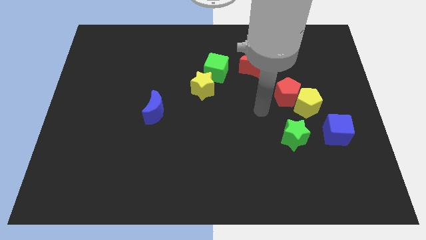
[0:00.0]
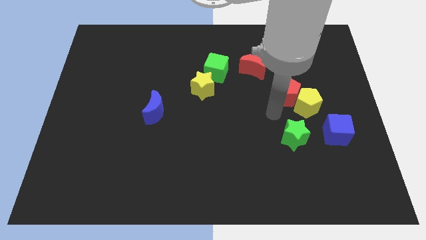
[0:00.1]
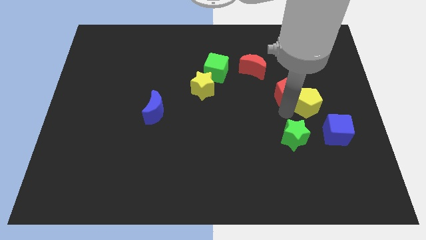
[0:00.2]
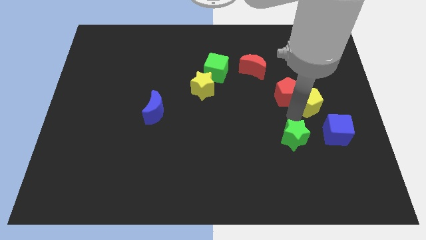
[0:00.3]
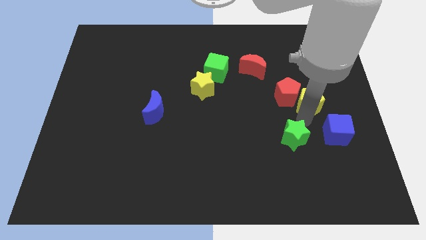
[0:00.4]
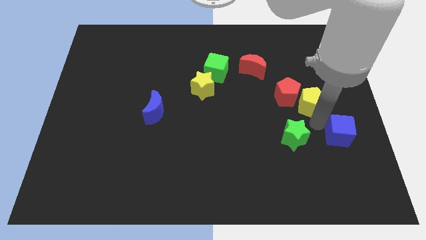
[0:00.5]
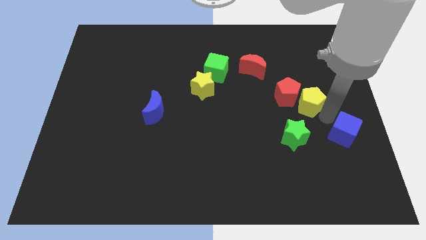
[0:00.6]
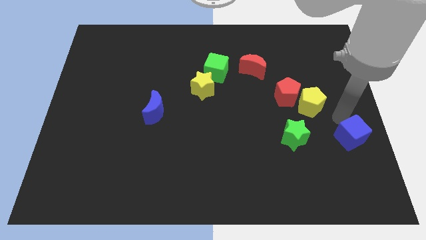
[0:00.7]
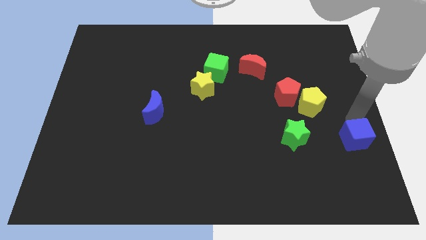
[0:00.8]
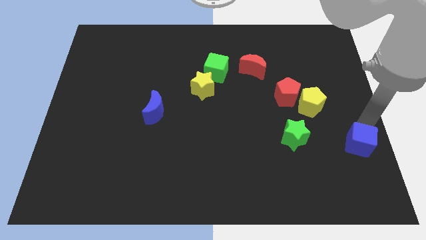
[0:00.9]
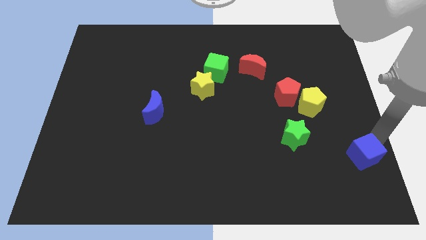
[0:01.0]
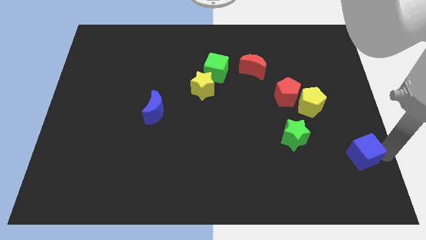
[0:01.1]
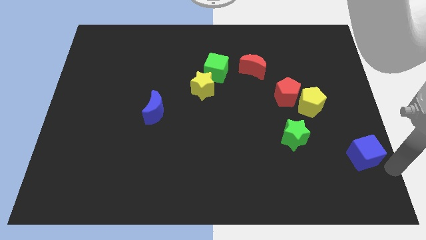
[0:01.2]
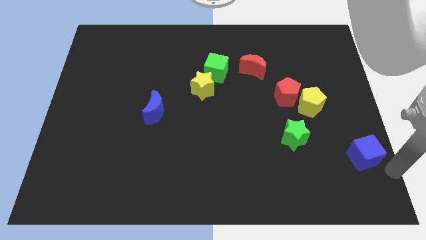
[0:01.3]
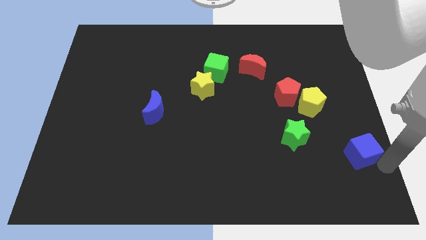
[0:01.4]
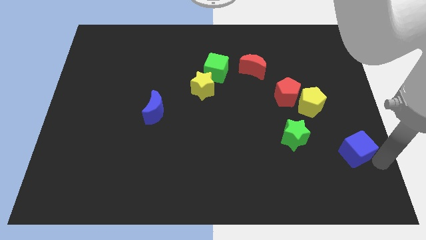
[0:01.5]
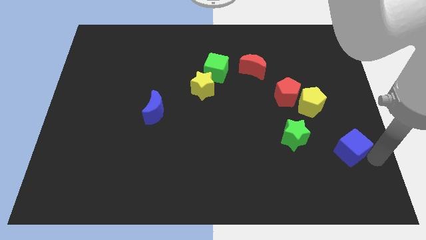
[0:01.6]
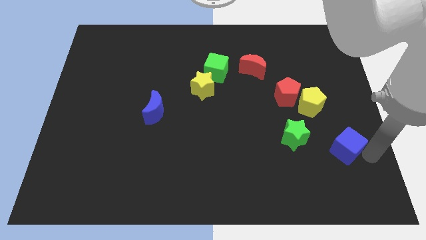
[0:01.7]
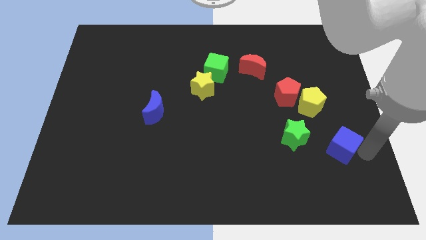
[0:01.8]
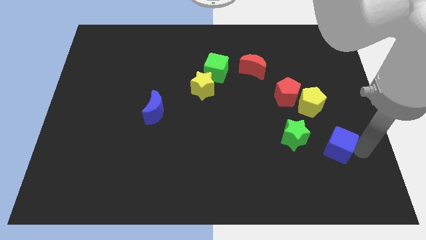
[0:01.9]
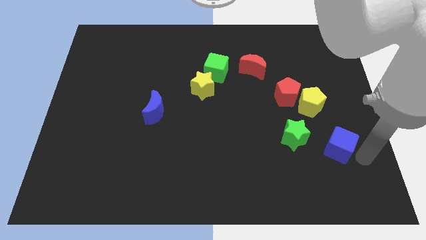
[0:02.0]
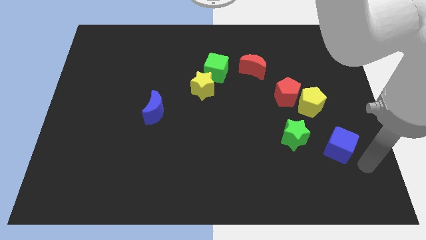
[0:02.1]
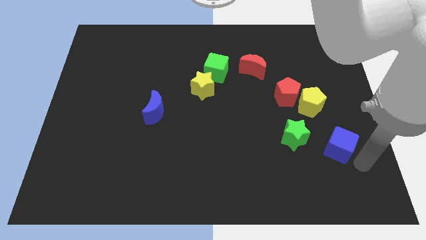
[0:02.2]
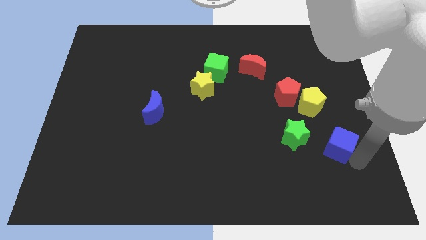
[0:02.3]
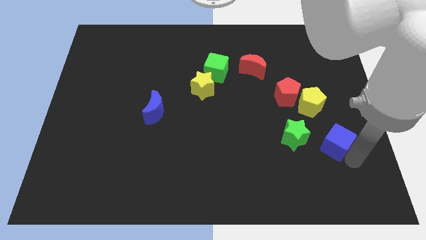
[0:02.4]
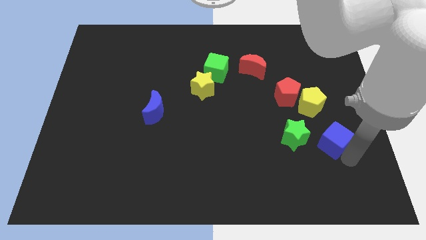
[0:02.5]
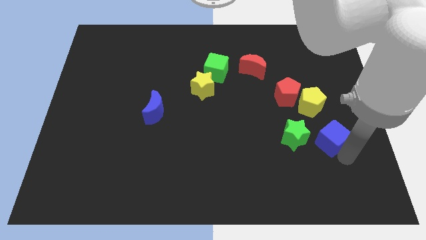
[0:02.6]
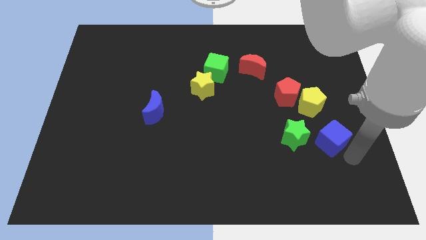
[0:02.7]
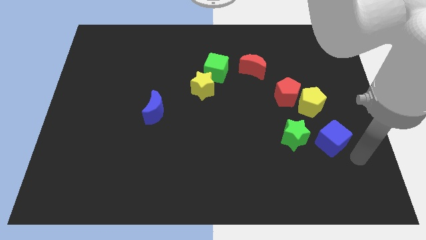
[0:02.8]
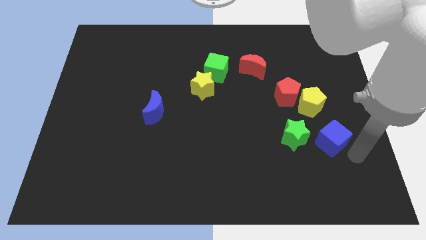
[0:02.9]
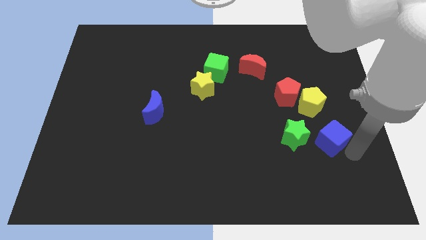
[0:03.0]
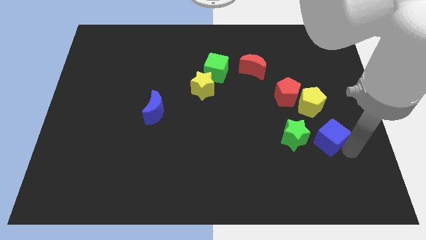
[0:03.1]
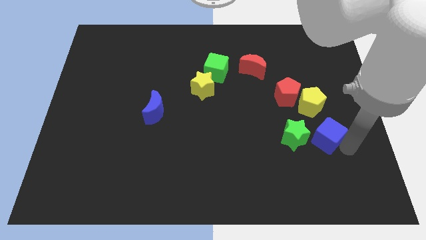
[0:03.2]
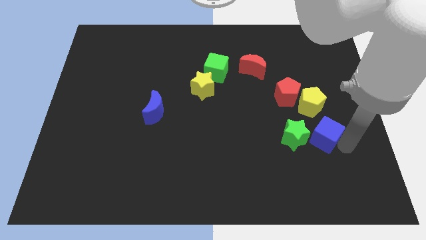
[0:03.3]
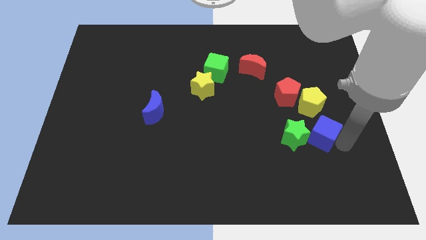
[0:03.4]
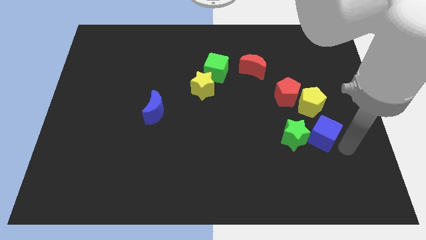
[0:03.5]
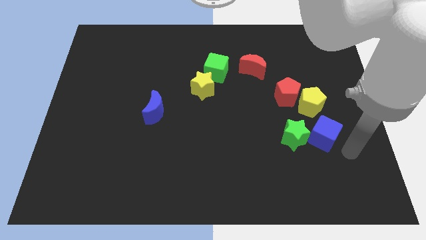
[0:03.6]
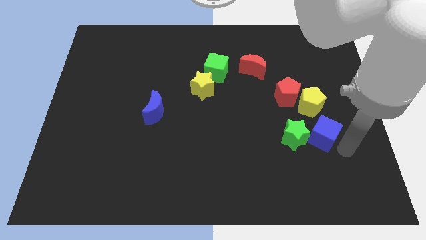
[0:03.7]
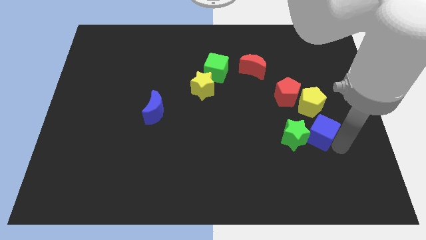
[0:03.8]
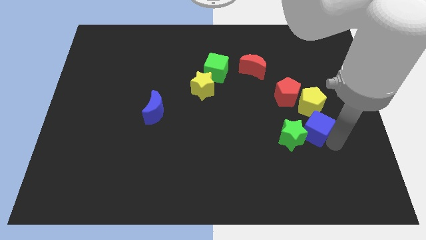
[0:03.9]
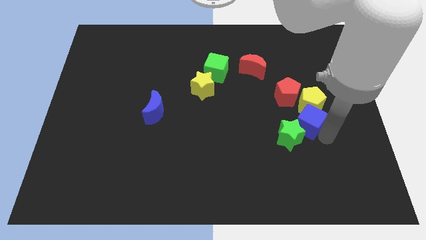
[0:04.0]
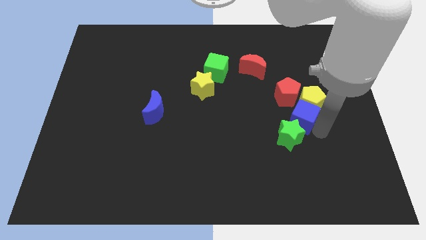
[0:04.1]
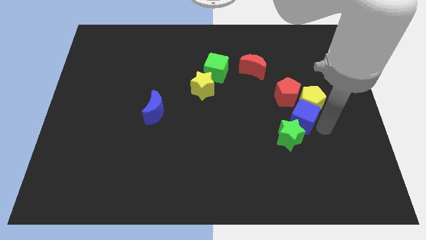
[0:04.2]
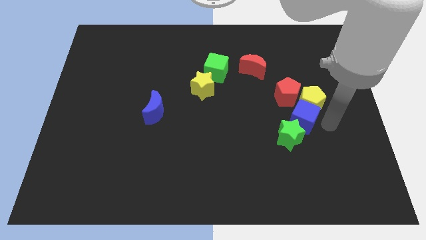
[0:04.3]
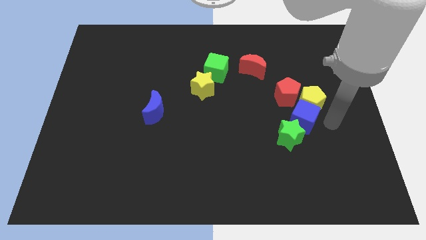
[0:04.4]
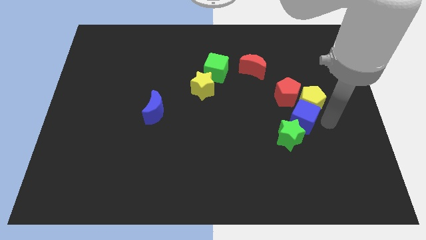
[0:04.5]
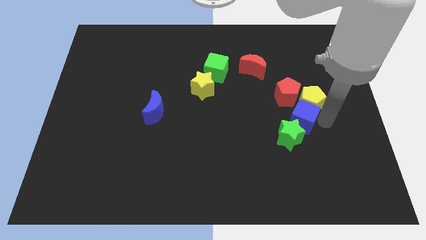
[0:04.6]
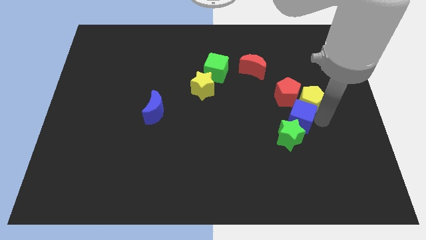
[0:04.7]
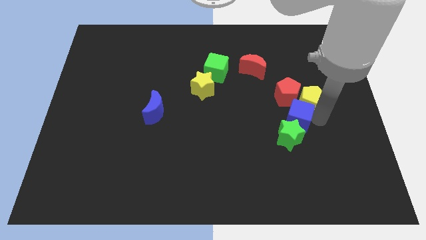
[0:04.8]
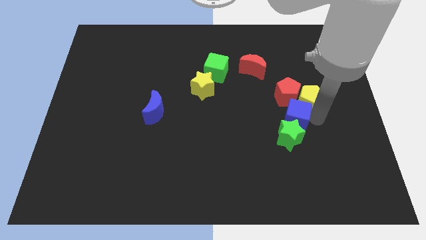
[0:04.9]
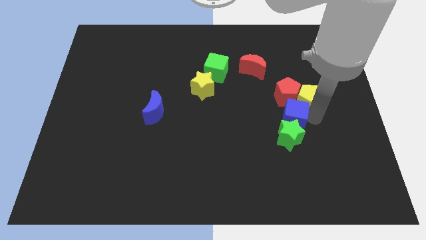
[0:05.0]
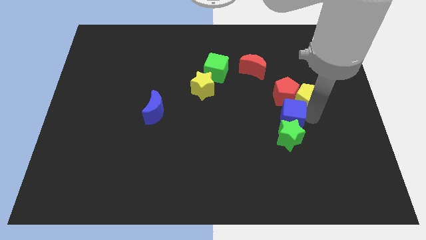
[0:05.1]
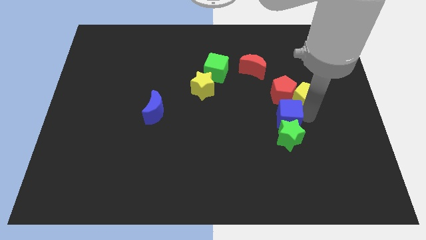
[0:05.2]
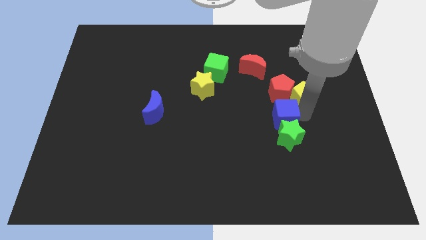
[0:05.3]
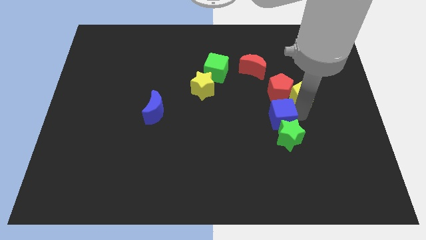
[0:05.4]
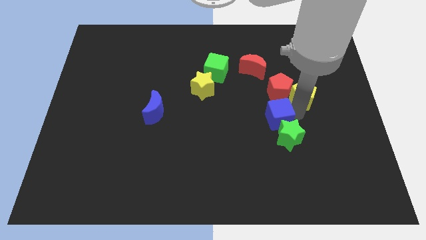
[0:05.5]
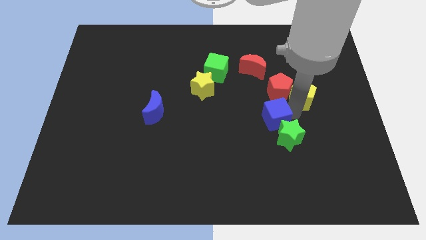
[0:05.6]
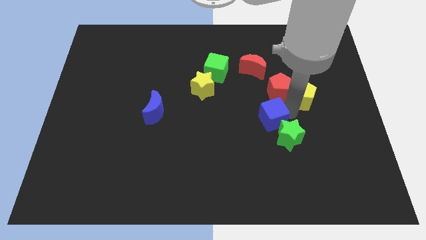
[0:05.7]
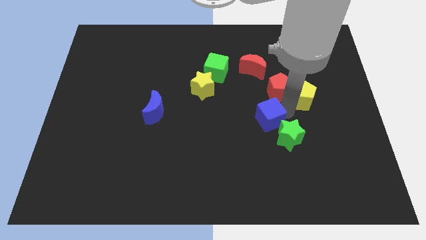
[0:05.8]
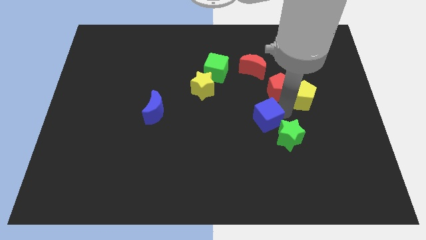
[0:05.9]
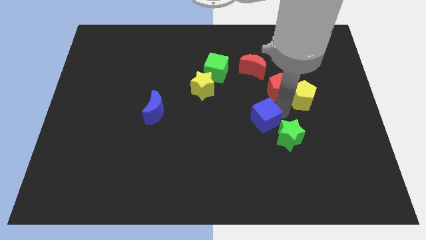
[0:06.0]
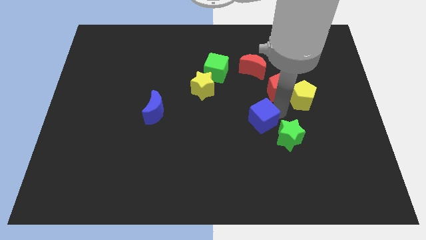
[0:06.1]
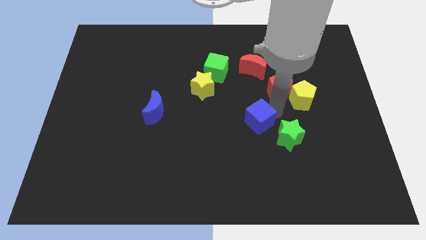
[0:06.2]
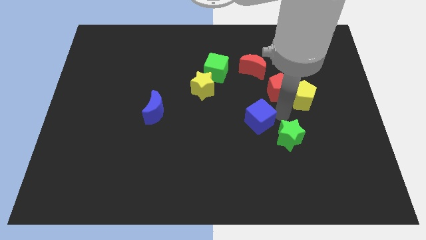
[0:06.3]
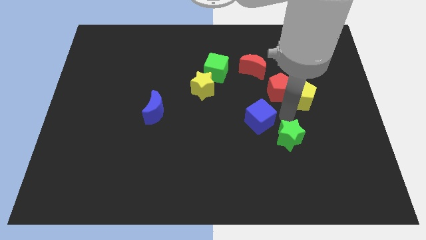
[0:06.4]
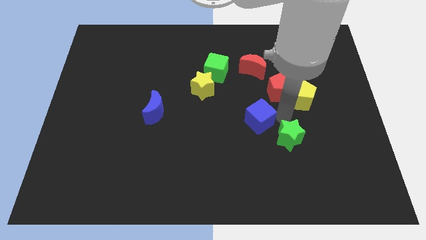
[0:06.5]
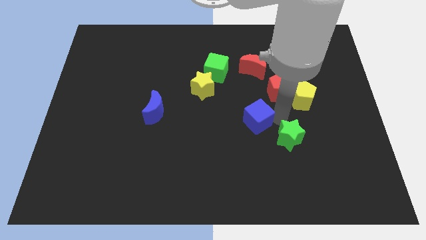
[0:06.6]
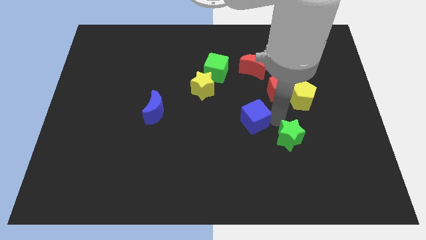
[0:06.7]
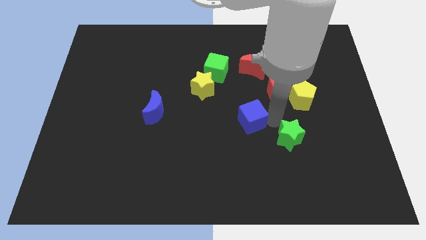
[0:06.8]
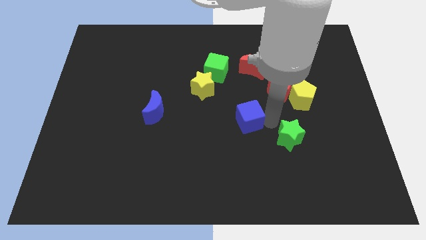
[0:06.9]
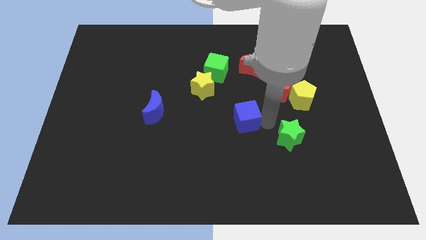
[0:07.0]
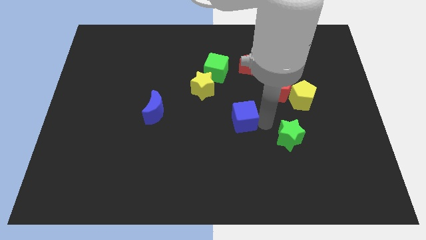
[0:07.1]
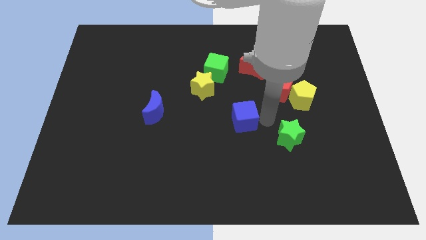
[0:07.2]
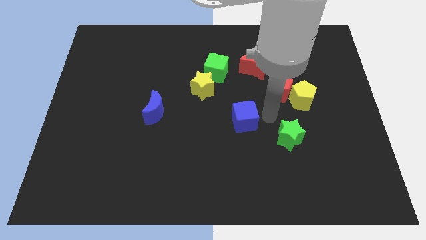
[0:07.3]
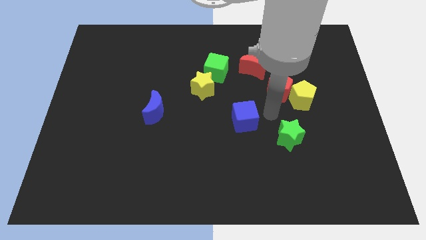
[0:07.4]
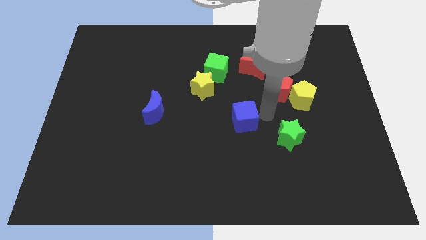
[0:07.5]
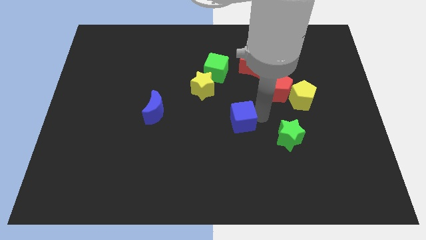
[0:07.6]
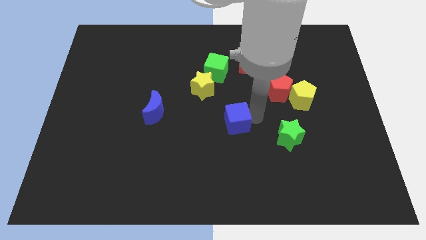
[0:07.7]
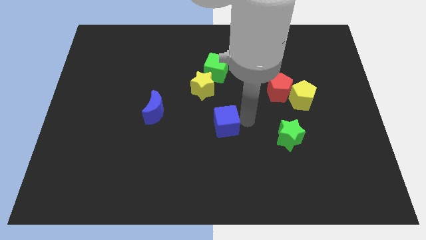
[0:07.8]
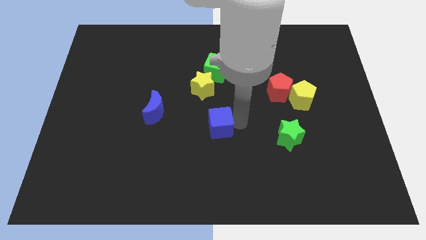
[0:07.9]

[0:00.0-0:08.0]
move the blue cube below the yellow star
